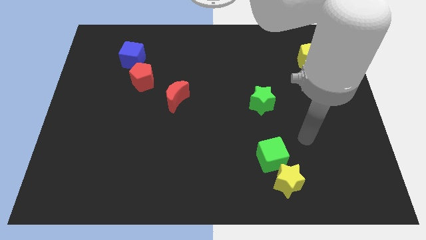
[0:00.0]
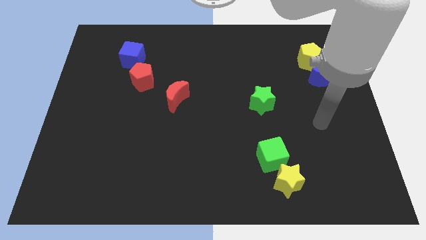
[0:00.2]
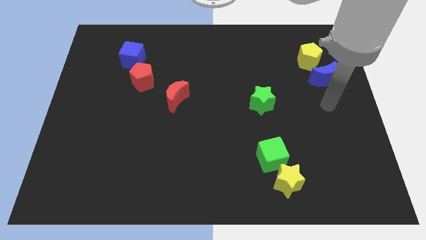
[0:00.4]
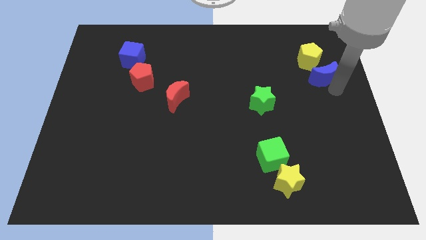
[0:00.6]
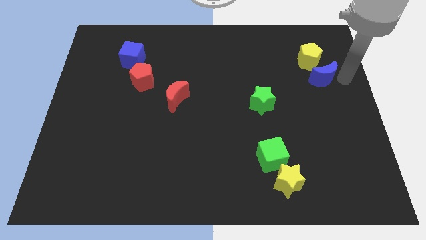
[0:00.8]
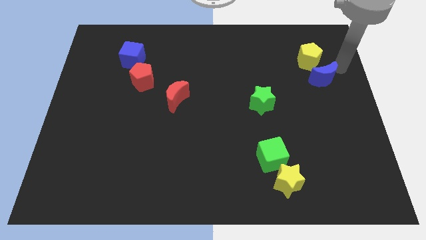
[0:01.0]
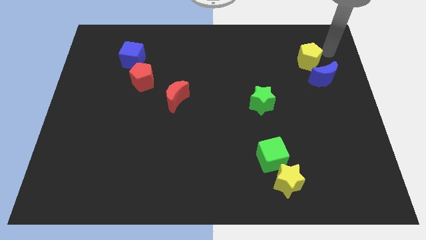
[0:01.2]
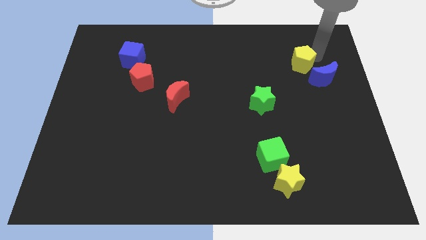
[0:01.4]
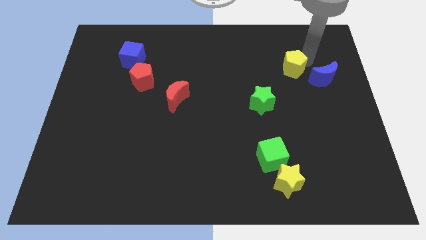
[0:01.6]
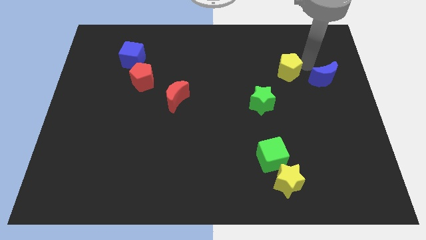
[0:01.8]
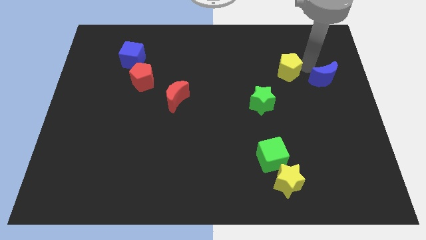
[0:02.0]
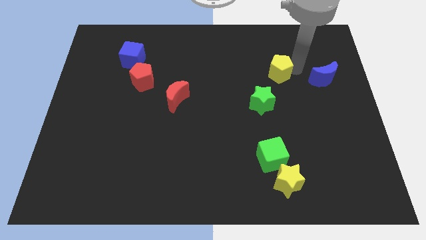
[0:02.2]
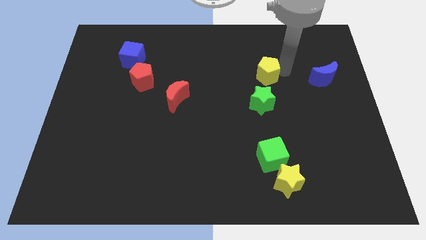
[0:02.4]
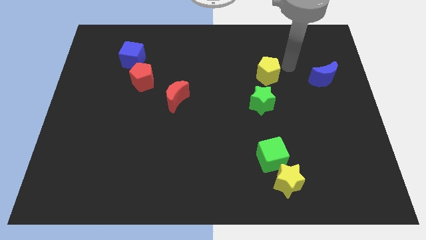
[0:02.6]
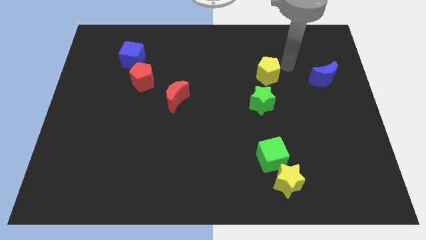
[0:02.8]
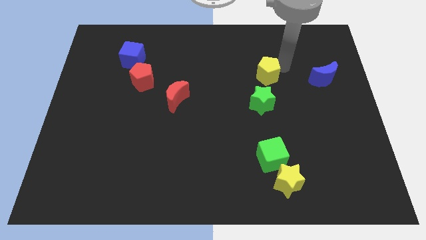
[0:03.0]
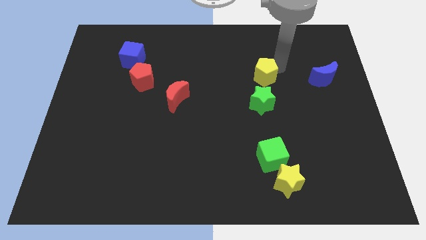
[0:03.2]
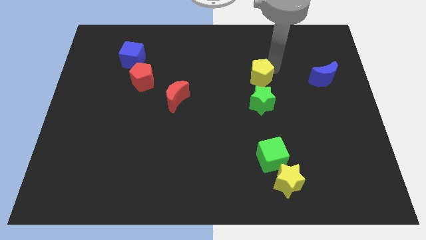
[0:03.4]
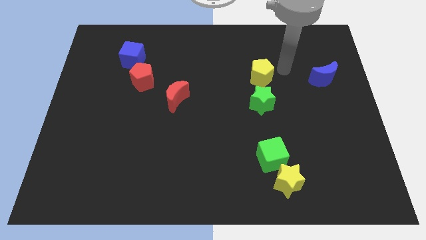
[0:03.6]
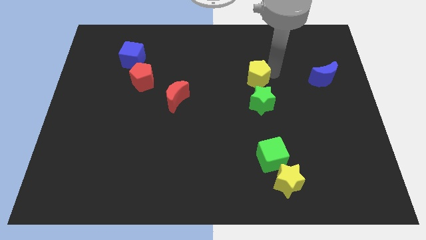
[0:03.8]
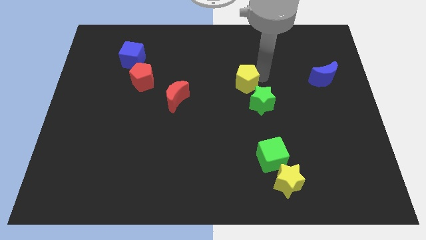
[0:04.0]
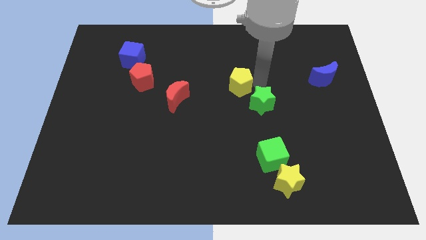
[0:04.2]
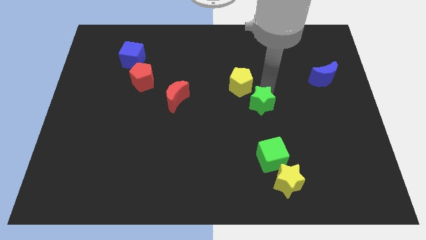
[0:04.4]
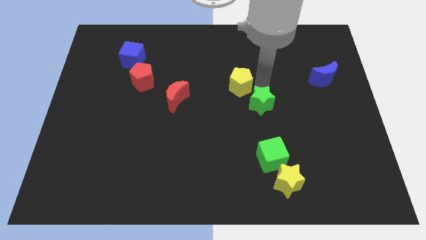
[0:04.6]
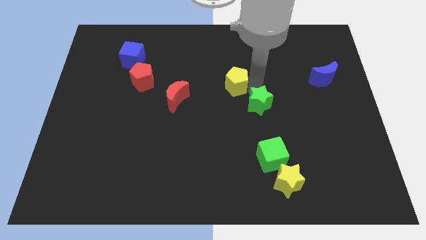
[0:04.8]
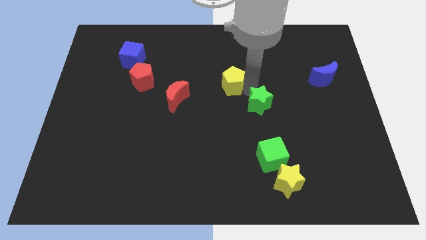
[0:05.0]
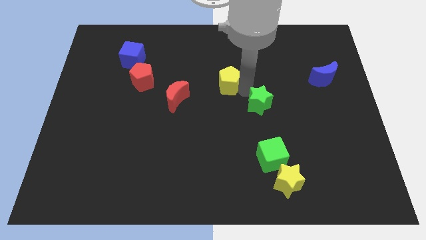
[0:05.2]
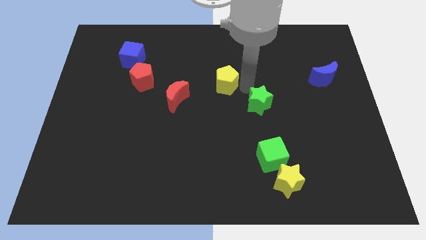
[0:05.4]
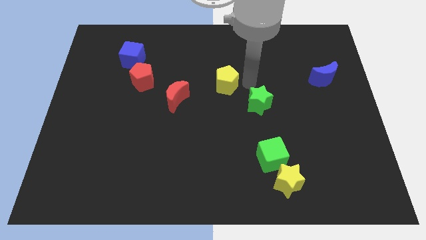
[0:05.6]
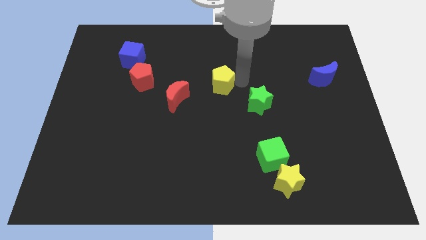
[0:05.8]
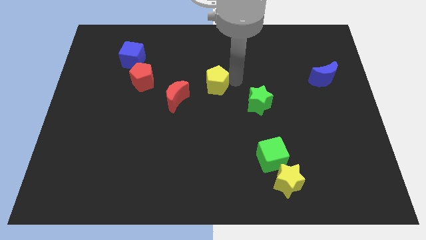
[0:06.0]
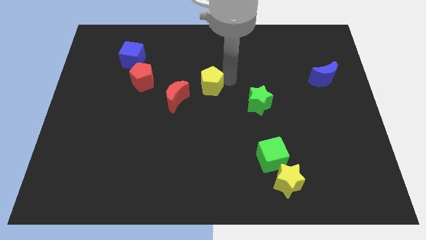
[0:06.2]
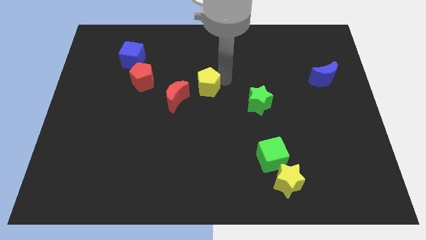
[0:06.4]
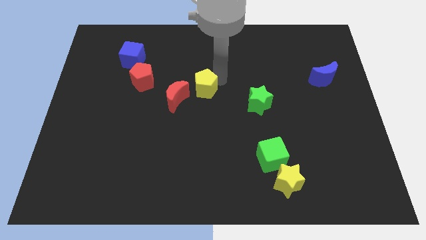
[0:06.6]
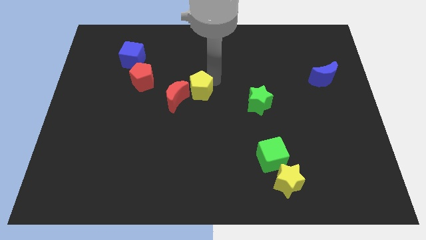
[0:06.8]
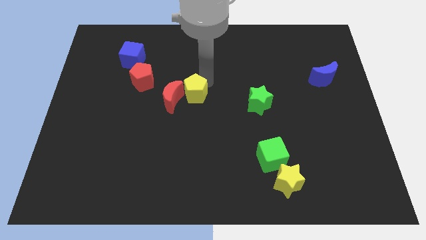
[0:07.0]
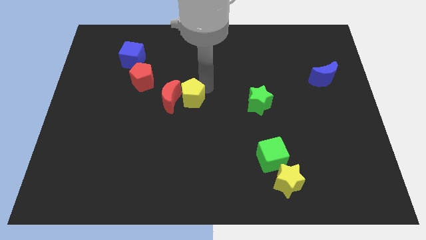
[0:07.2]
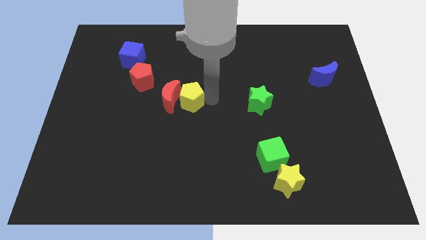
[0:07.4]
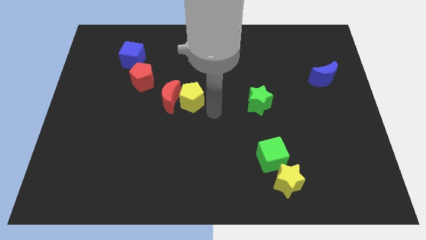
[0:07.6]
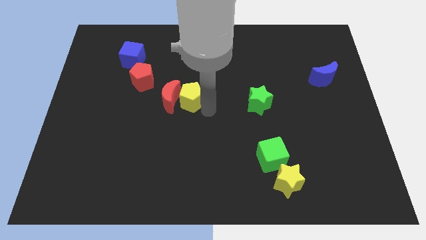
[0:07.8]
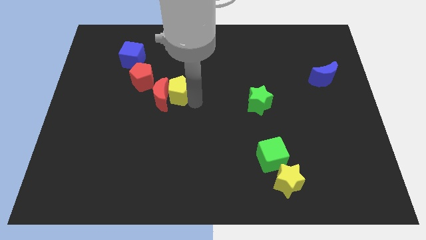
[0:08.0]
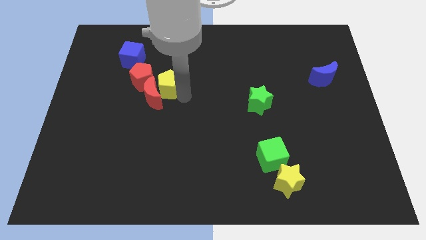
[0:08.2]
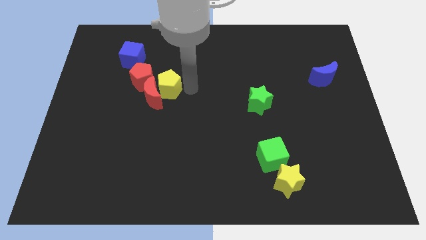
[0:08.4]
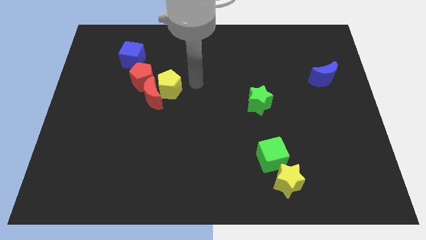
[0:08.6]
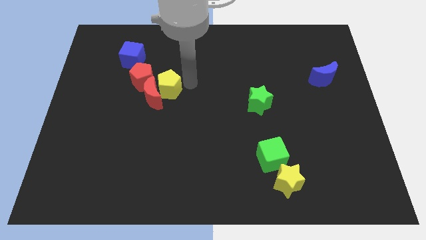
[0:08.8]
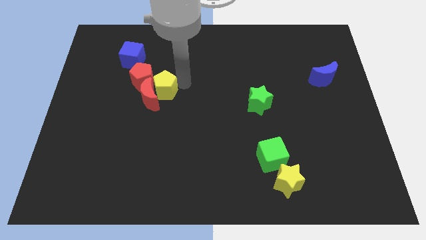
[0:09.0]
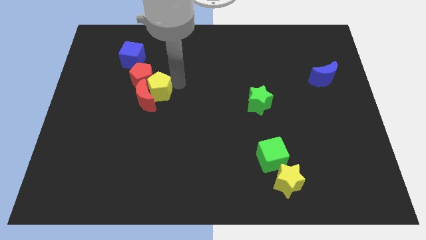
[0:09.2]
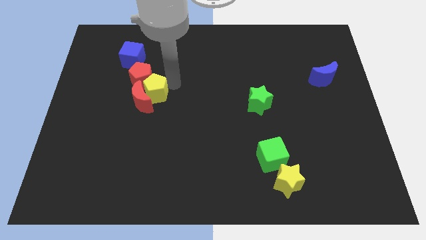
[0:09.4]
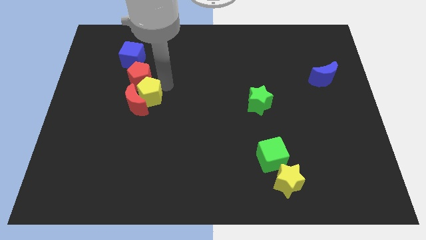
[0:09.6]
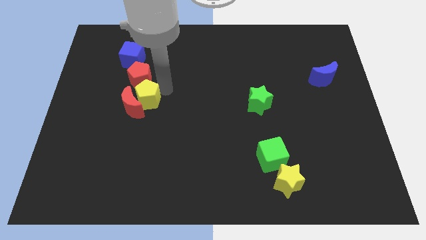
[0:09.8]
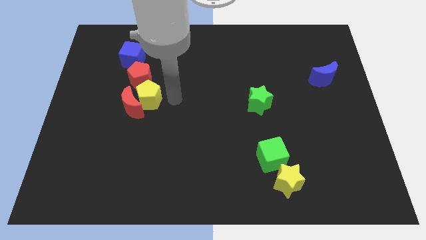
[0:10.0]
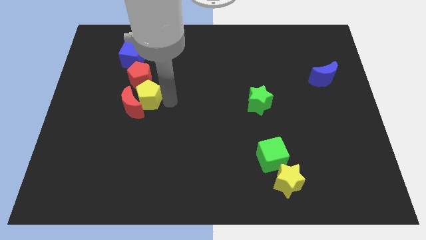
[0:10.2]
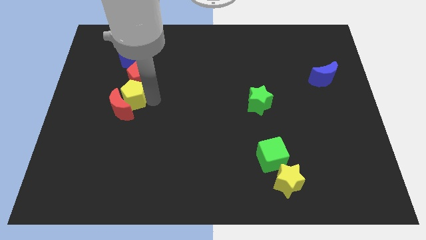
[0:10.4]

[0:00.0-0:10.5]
put the yellow pentagon to the bottom left side of the red pentagon
